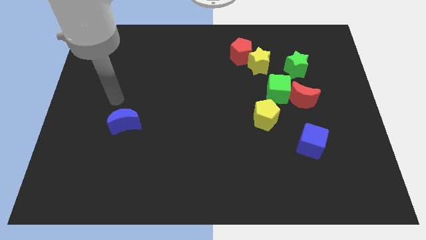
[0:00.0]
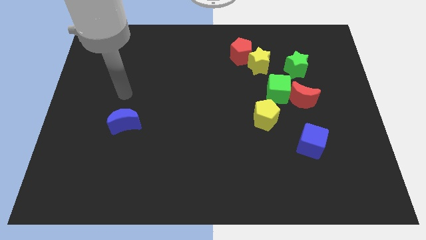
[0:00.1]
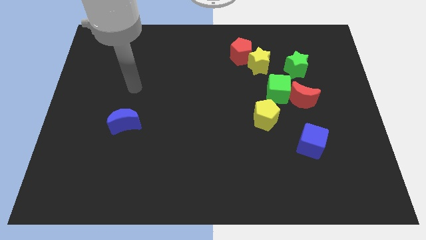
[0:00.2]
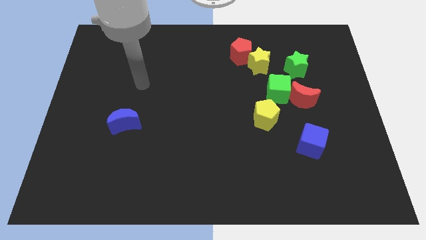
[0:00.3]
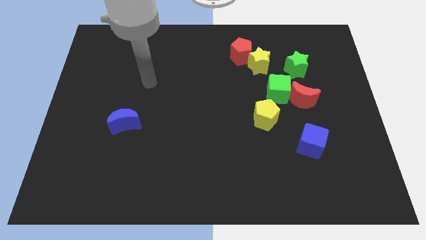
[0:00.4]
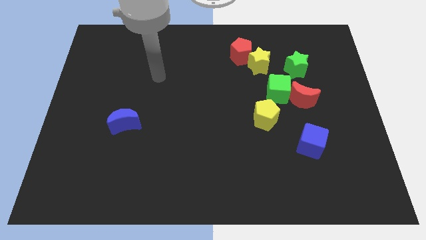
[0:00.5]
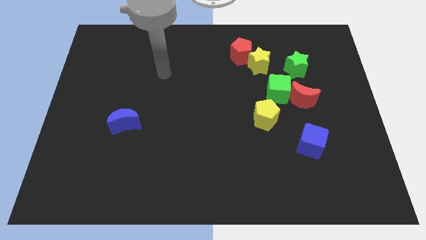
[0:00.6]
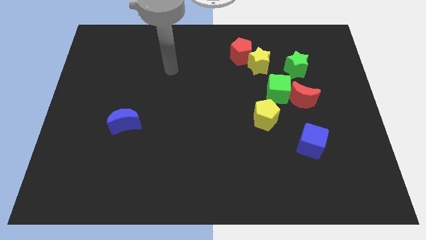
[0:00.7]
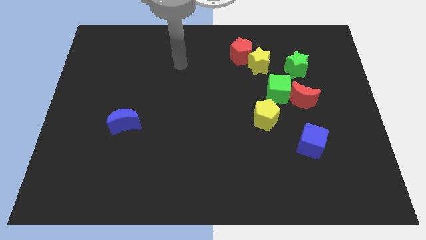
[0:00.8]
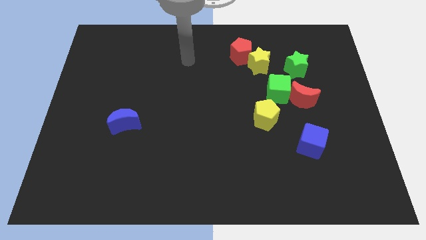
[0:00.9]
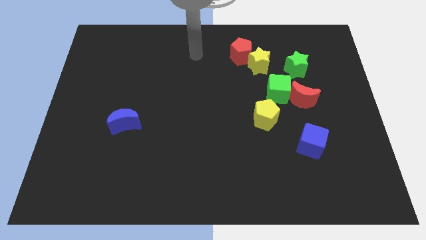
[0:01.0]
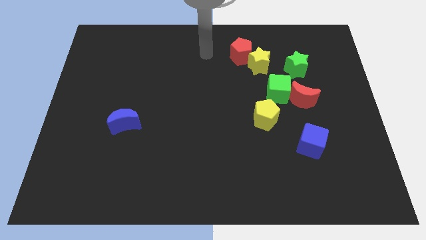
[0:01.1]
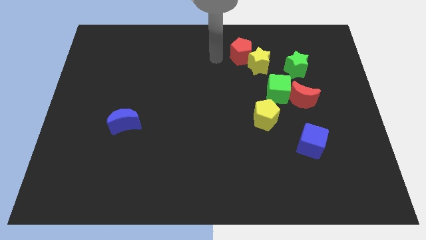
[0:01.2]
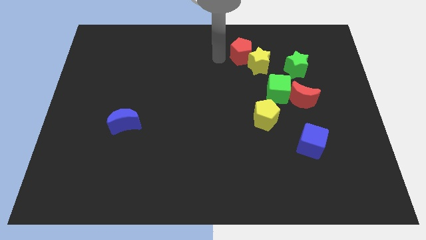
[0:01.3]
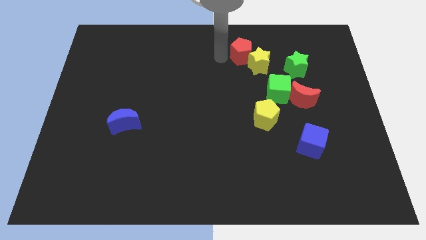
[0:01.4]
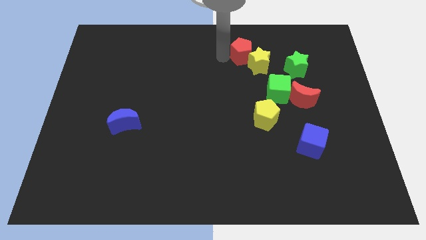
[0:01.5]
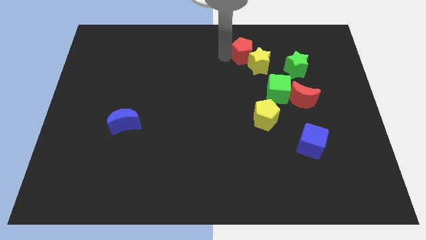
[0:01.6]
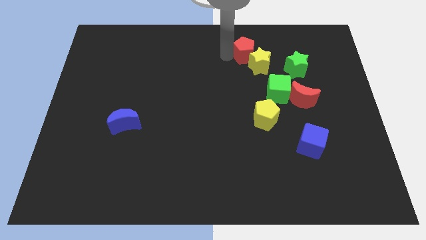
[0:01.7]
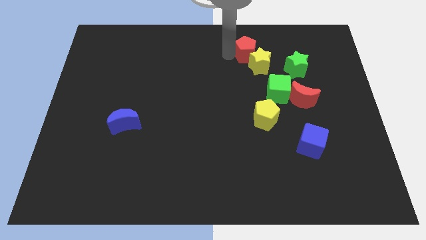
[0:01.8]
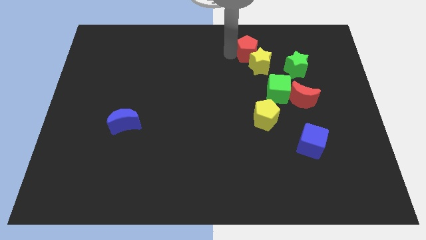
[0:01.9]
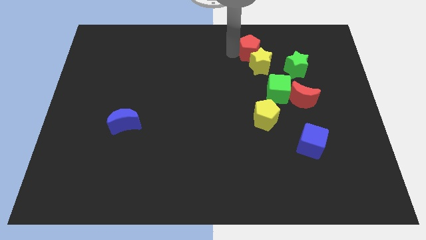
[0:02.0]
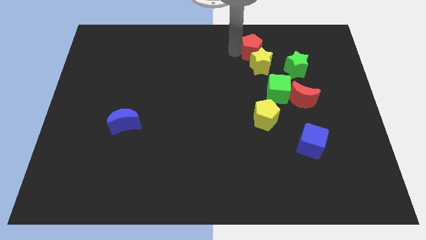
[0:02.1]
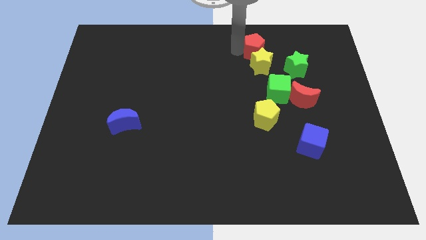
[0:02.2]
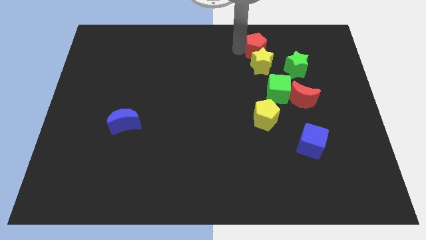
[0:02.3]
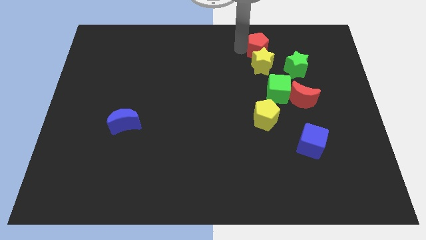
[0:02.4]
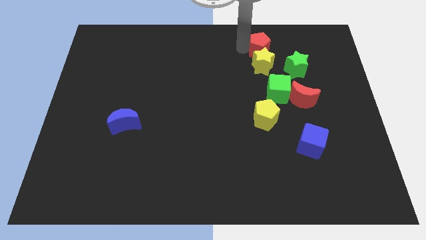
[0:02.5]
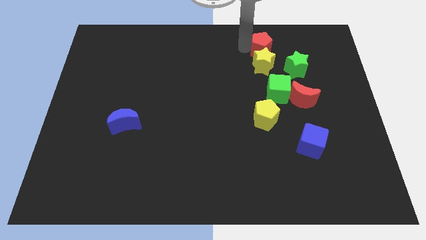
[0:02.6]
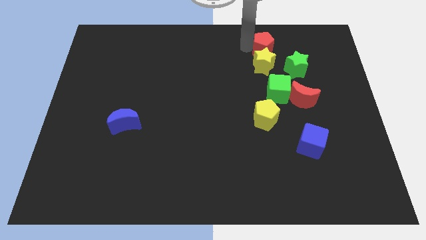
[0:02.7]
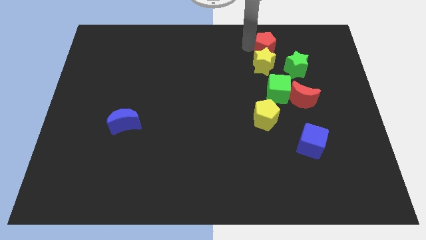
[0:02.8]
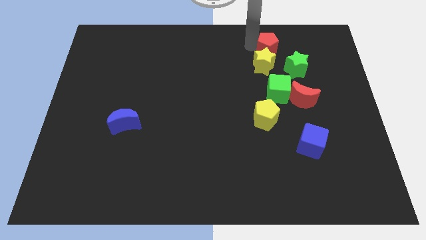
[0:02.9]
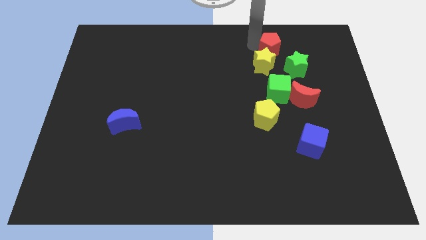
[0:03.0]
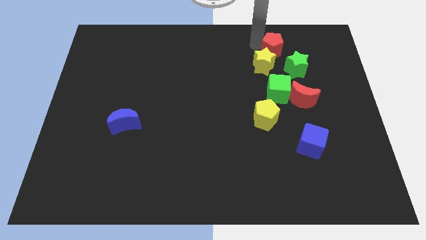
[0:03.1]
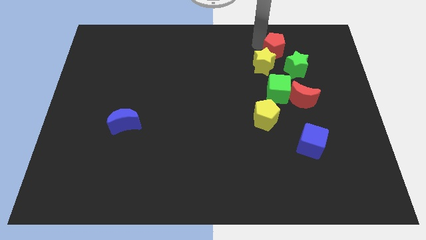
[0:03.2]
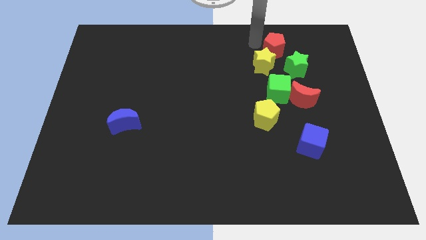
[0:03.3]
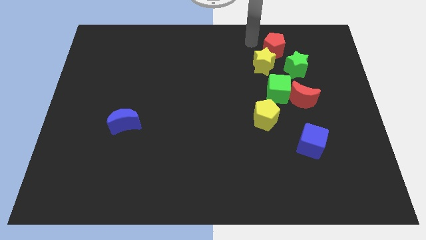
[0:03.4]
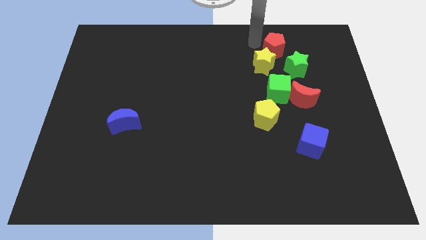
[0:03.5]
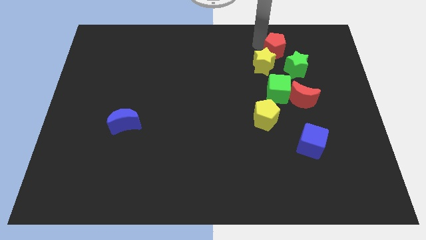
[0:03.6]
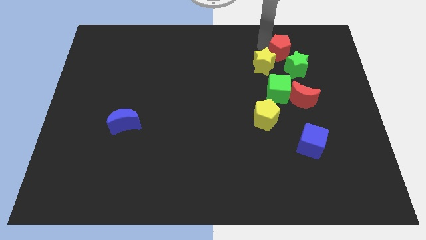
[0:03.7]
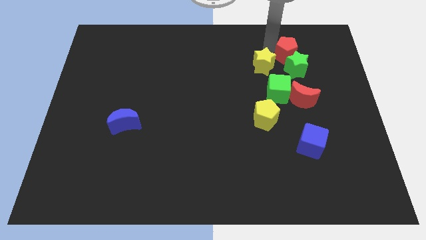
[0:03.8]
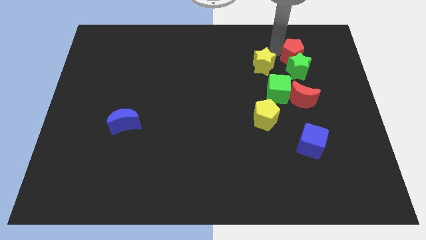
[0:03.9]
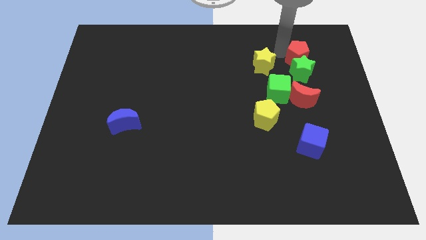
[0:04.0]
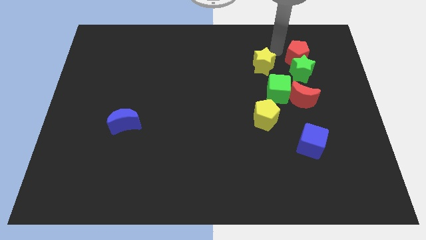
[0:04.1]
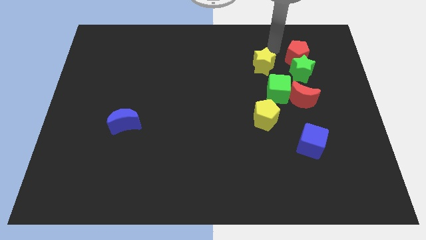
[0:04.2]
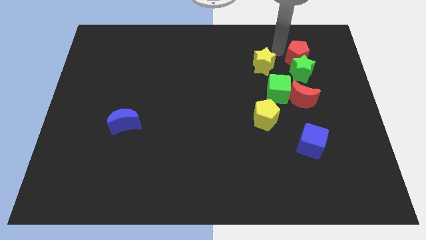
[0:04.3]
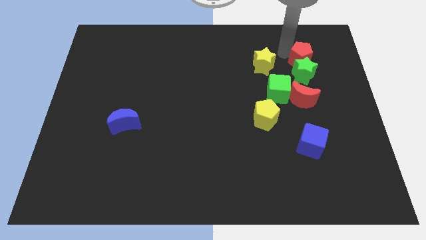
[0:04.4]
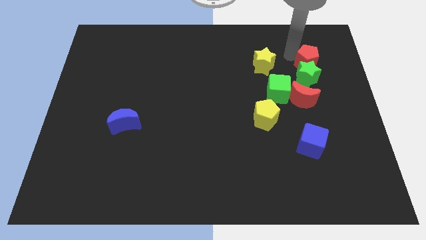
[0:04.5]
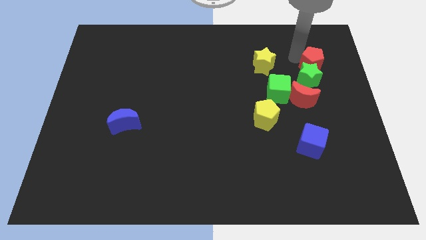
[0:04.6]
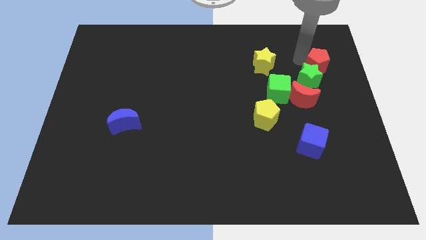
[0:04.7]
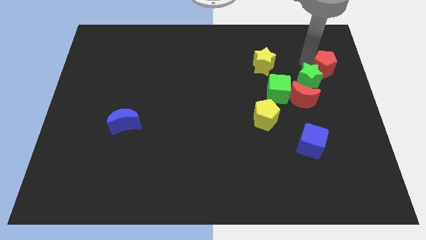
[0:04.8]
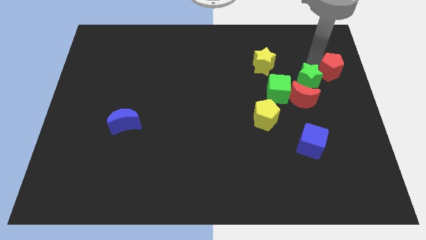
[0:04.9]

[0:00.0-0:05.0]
push the red pentagon to the right side of the board

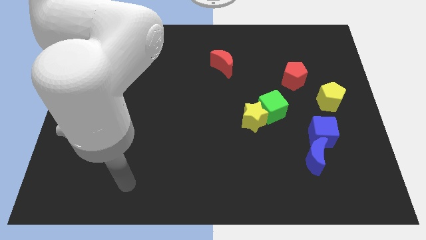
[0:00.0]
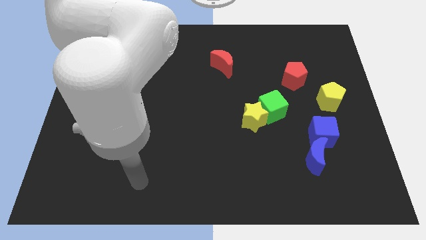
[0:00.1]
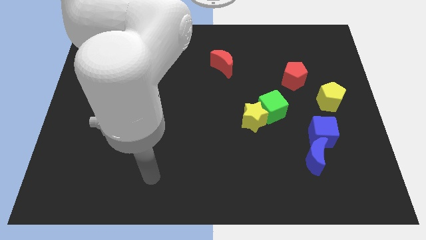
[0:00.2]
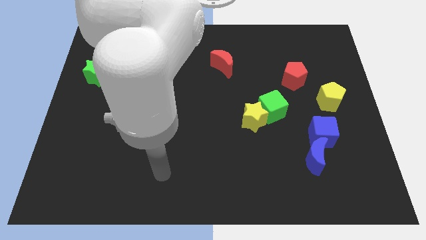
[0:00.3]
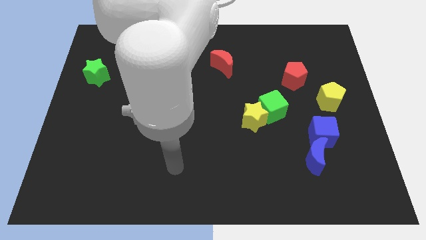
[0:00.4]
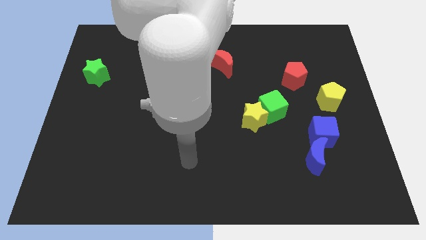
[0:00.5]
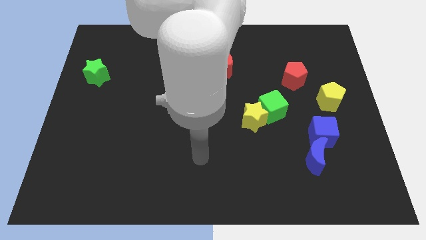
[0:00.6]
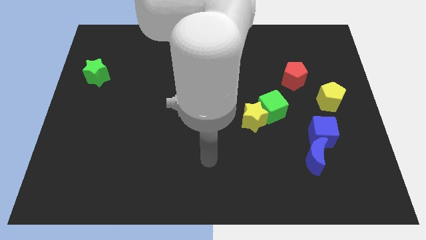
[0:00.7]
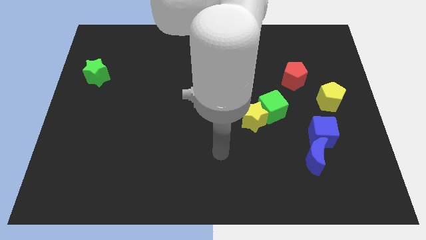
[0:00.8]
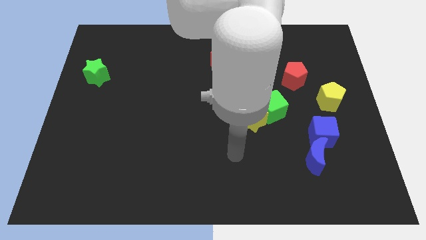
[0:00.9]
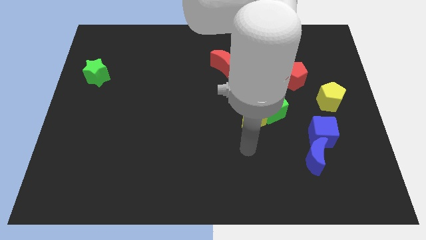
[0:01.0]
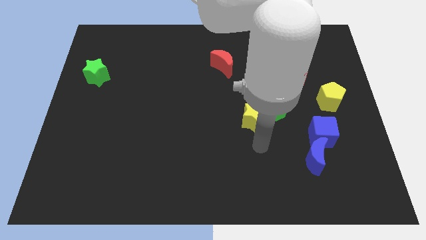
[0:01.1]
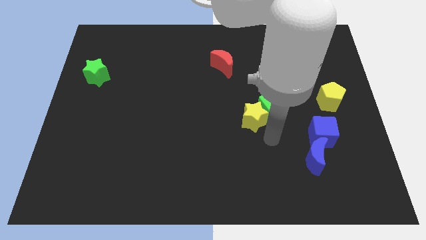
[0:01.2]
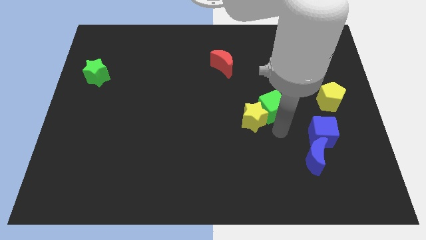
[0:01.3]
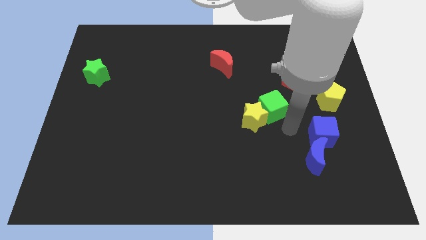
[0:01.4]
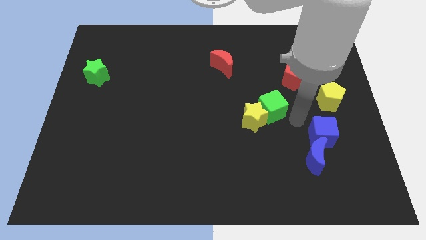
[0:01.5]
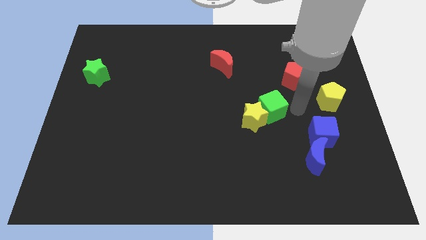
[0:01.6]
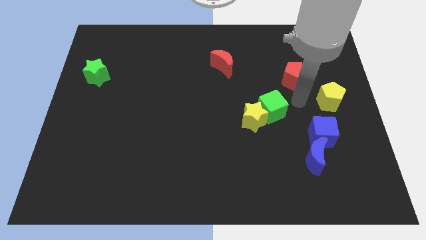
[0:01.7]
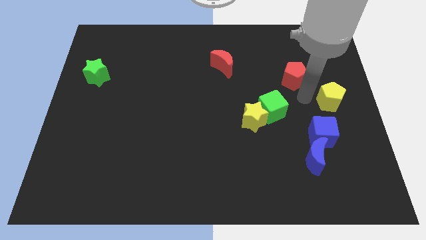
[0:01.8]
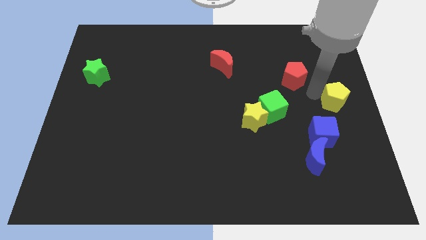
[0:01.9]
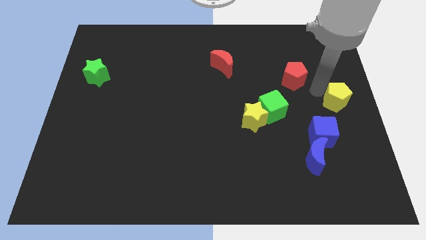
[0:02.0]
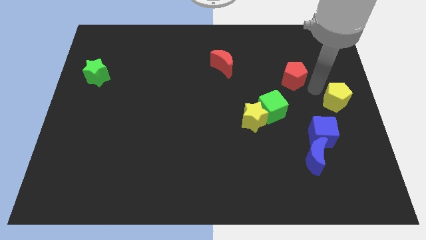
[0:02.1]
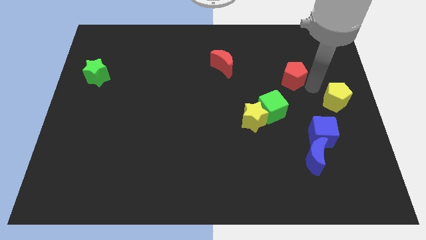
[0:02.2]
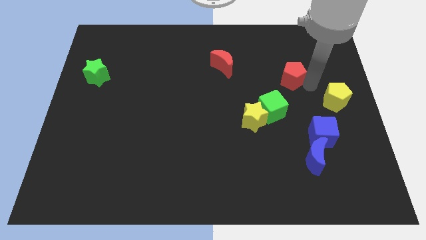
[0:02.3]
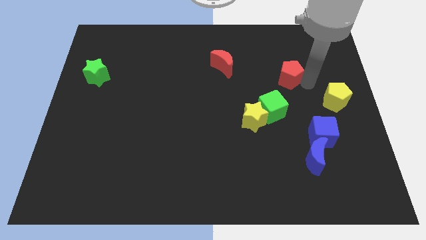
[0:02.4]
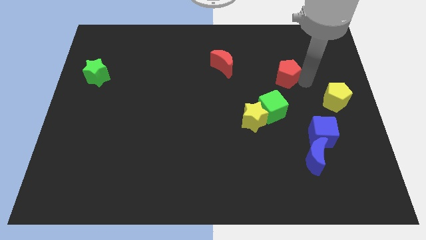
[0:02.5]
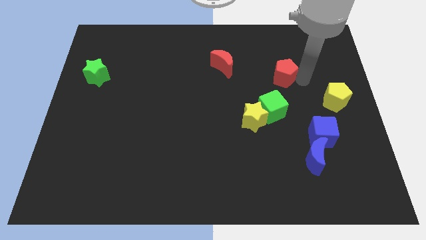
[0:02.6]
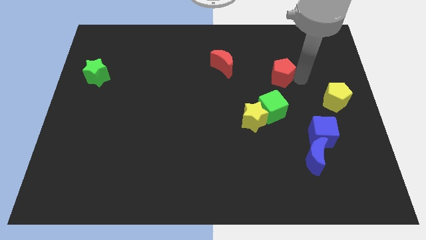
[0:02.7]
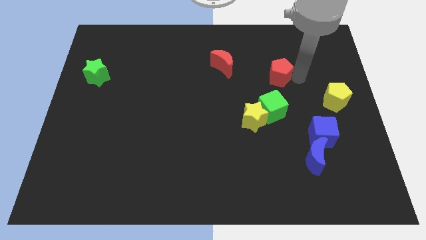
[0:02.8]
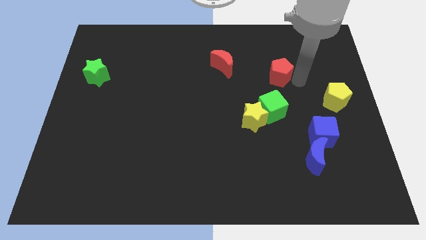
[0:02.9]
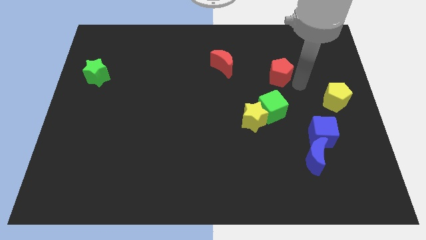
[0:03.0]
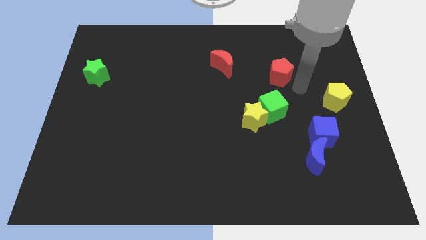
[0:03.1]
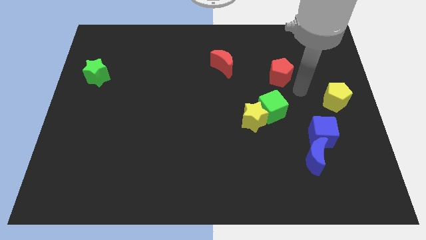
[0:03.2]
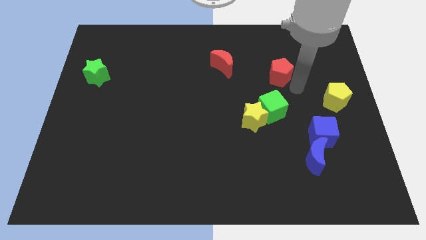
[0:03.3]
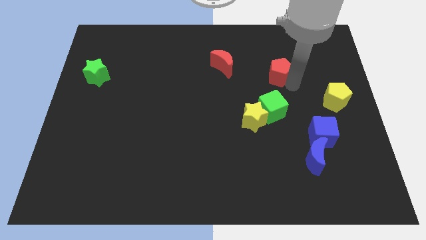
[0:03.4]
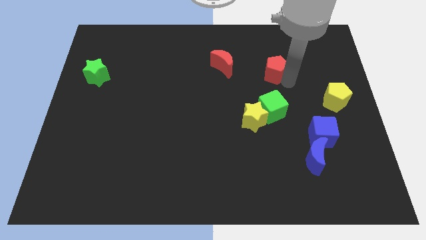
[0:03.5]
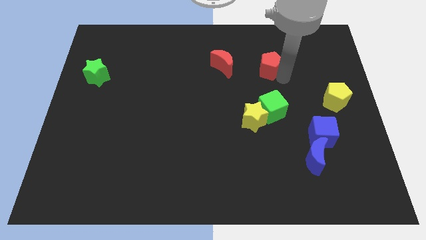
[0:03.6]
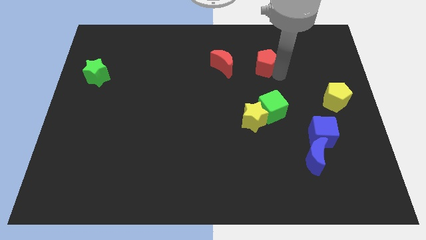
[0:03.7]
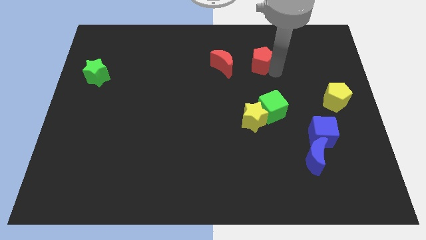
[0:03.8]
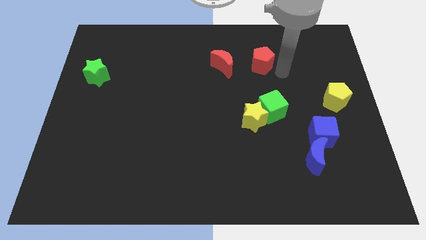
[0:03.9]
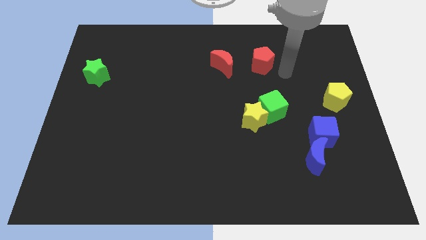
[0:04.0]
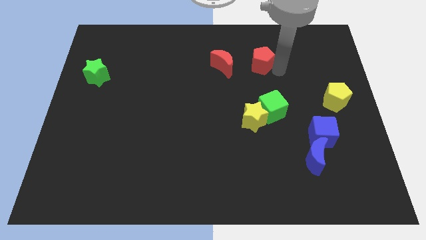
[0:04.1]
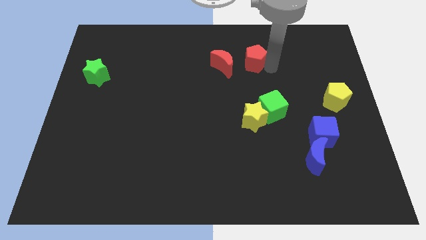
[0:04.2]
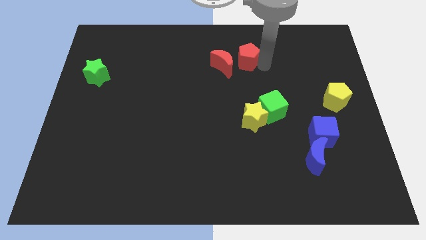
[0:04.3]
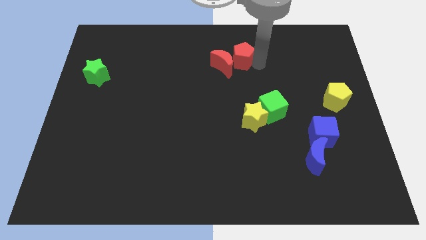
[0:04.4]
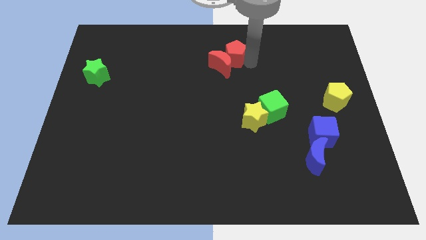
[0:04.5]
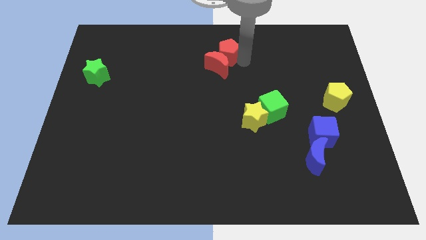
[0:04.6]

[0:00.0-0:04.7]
slide the red pentagon to the top
